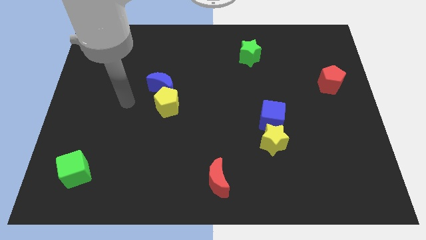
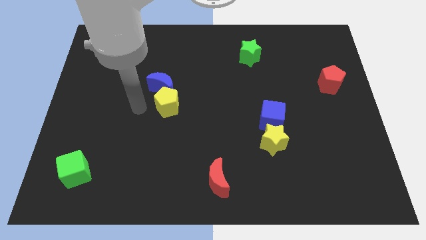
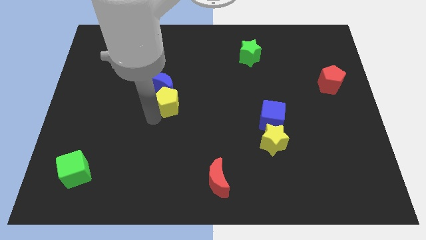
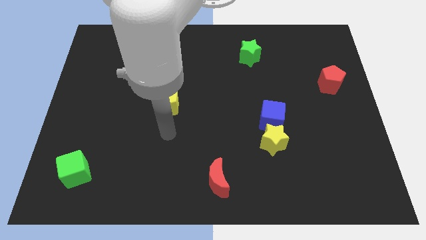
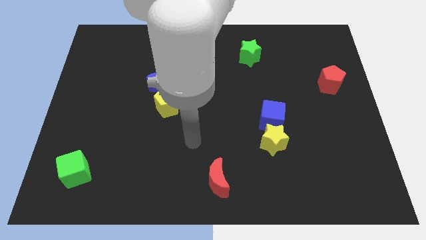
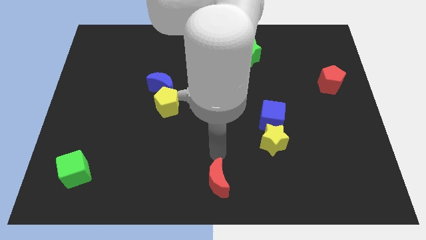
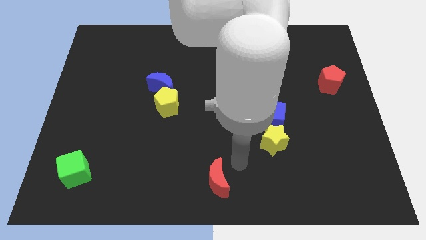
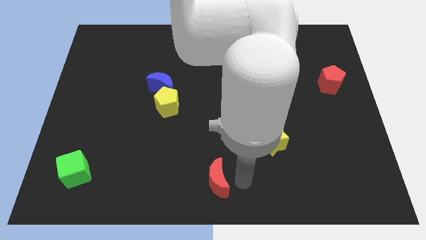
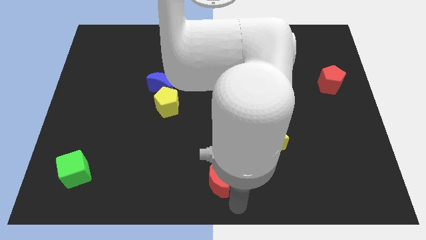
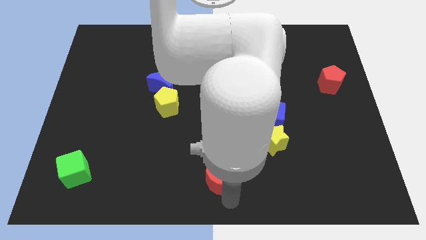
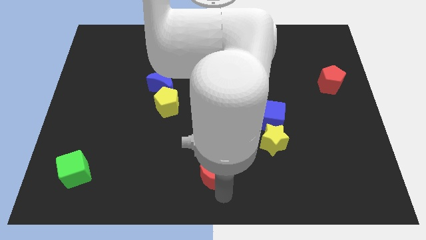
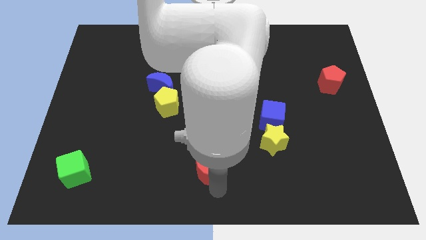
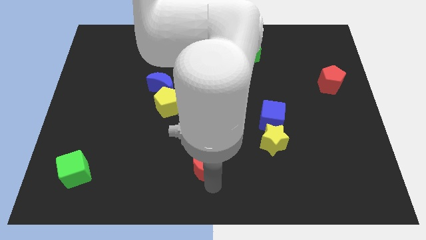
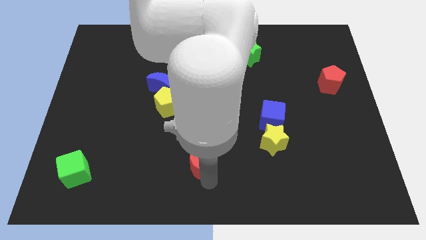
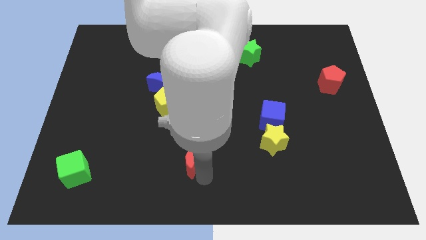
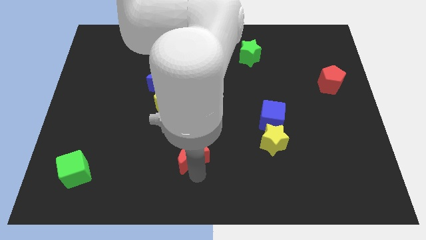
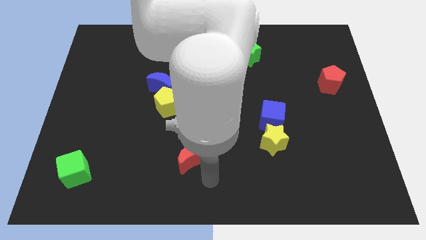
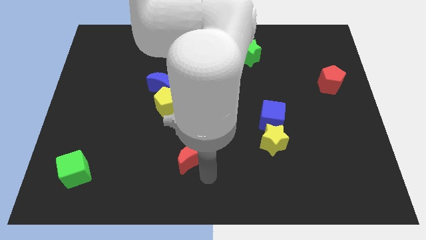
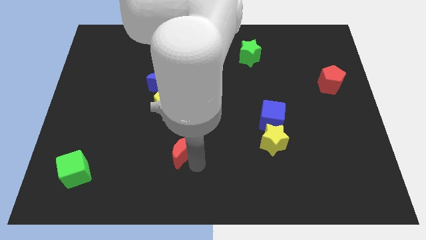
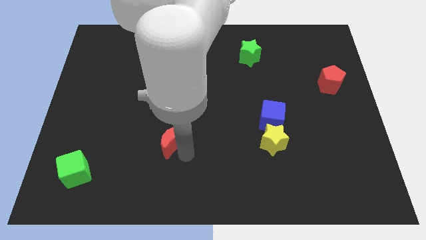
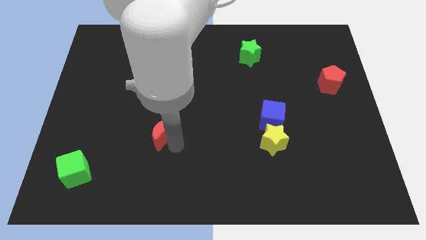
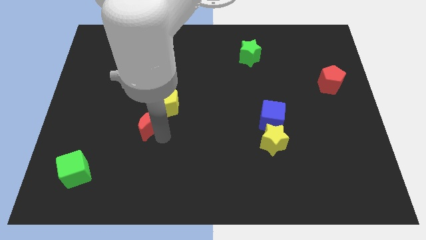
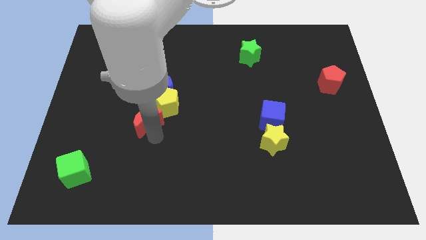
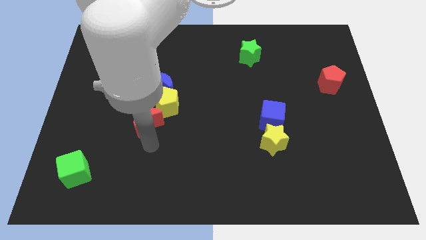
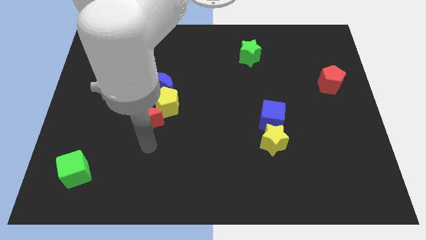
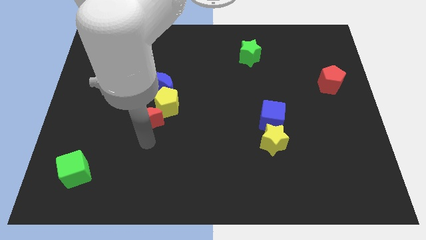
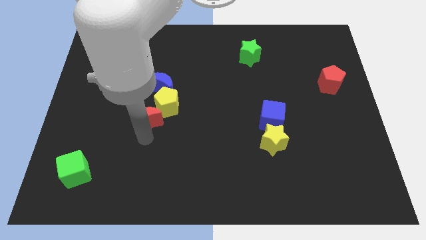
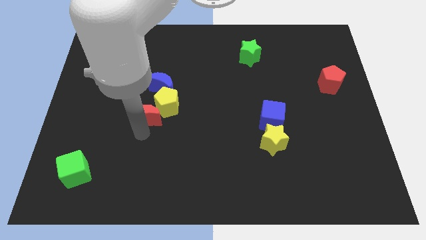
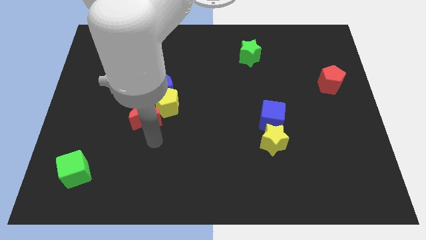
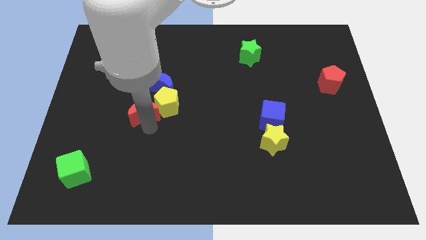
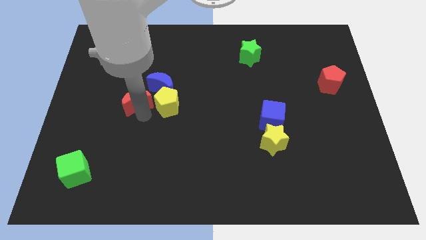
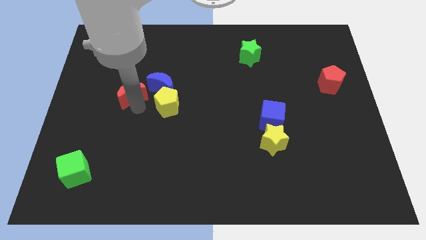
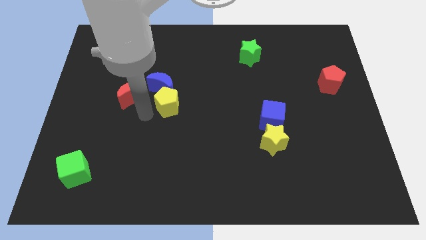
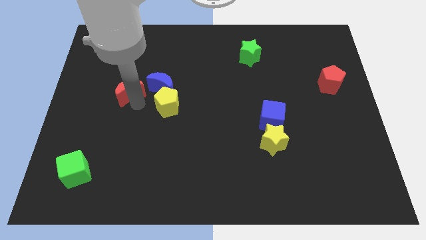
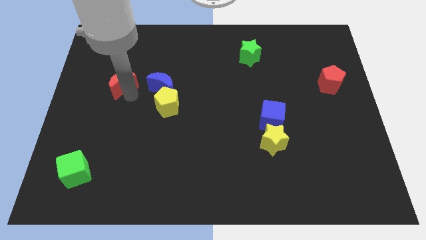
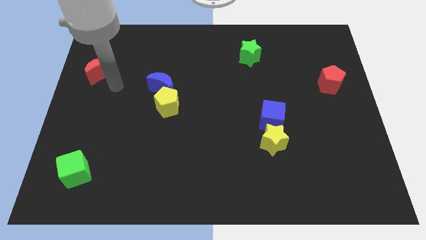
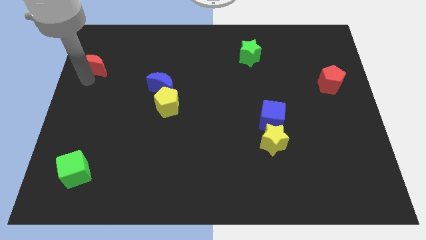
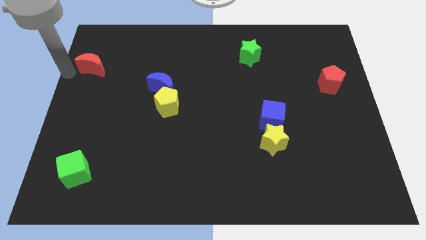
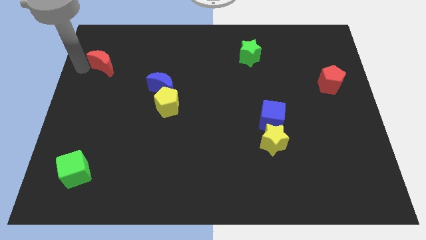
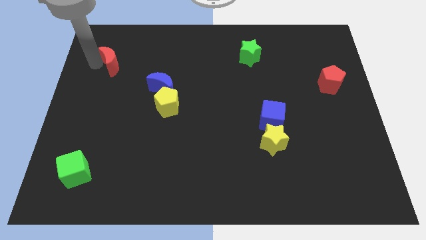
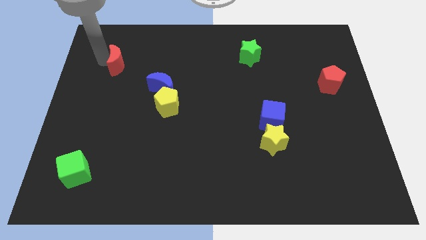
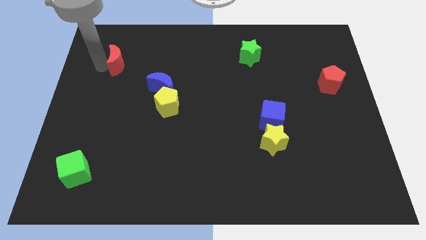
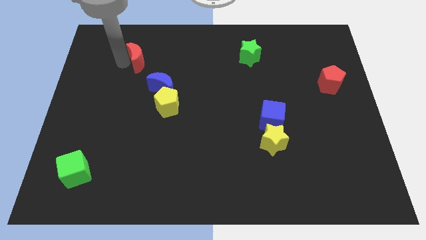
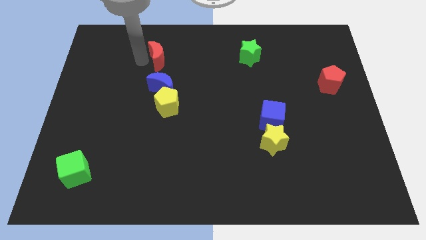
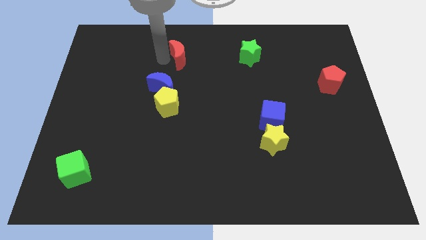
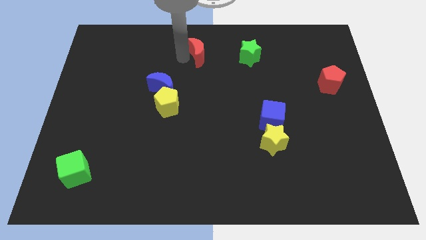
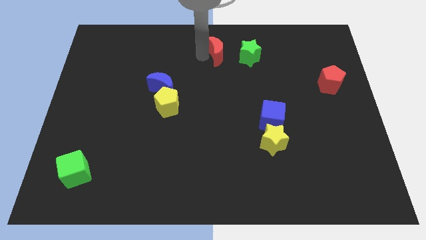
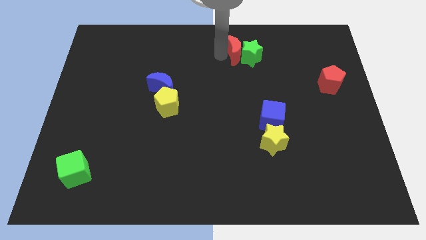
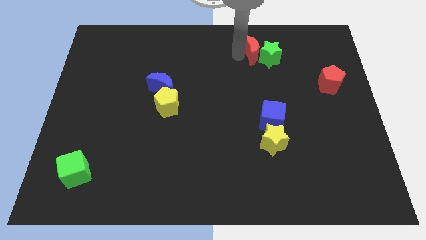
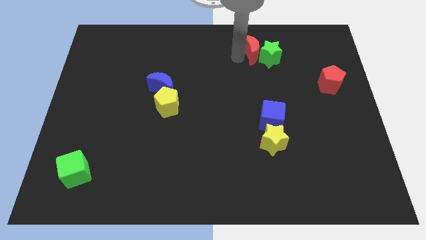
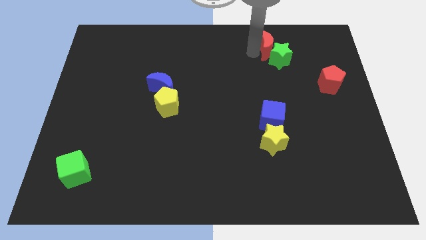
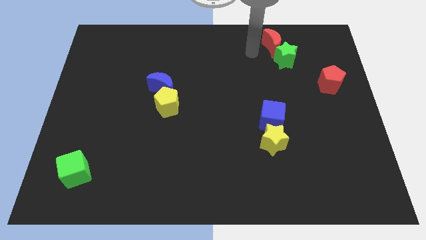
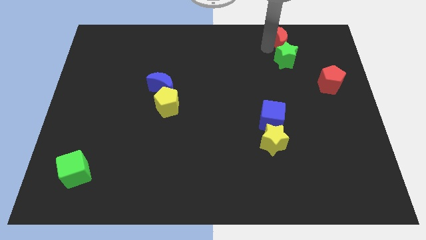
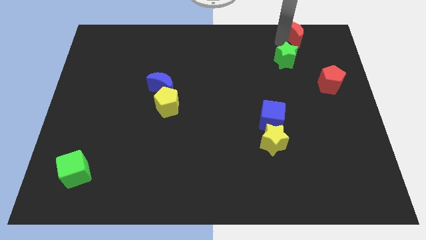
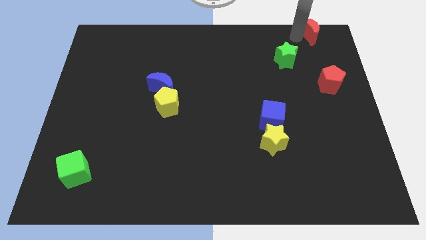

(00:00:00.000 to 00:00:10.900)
move the red moon to the top right
